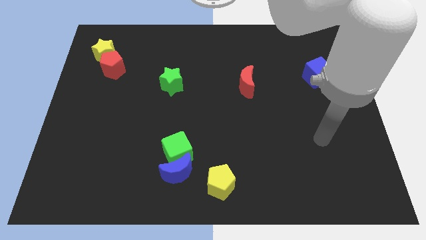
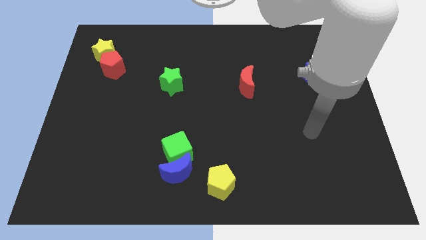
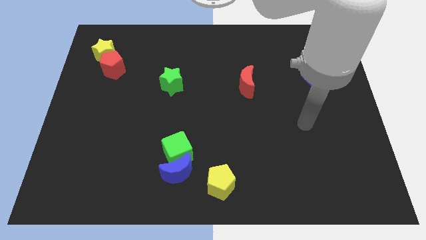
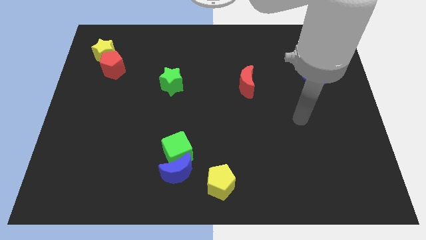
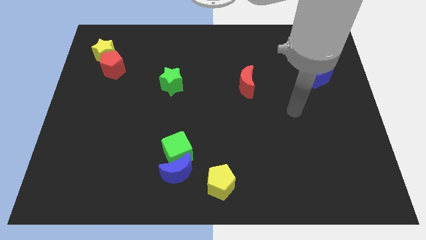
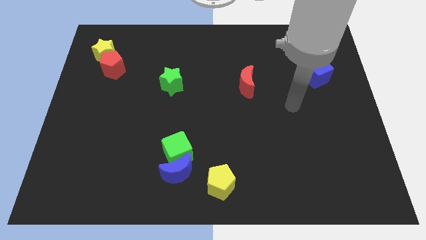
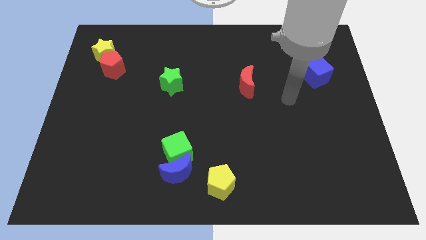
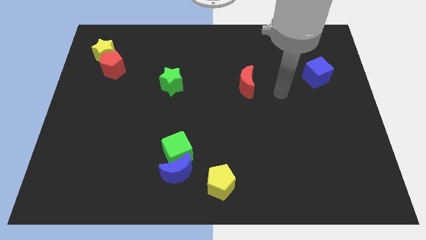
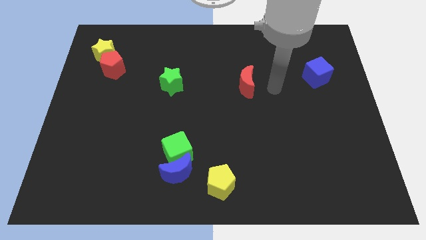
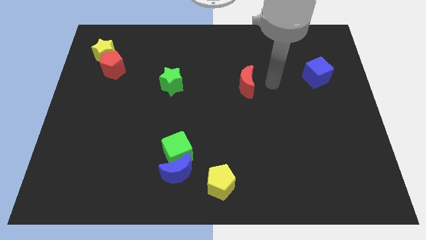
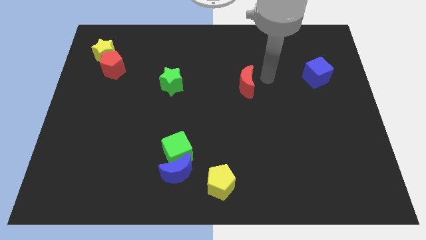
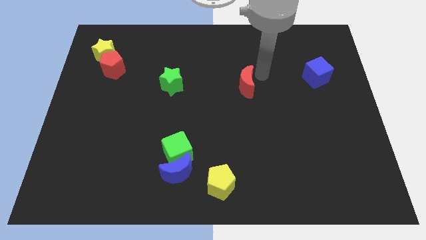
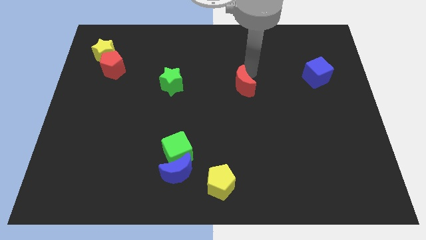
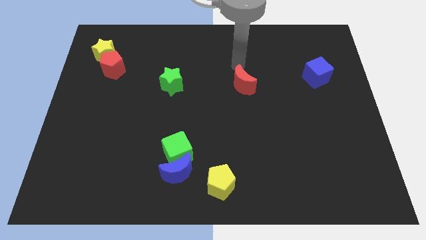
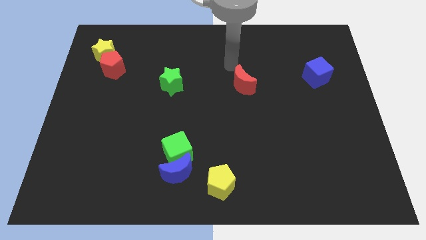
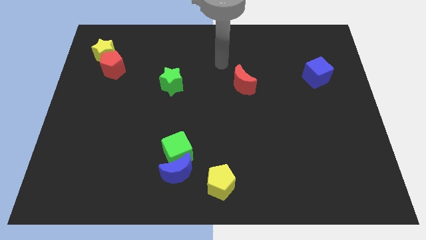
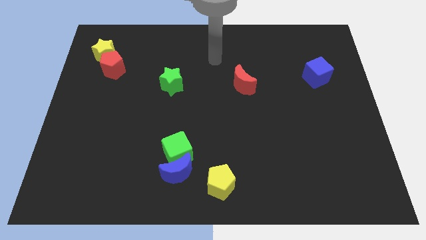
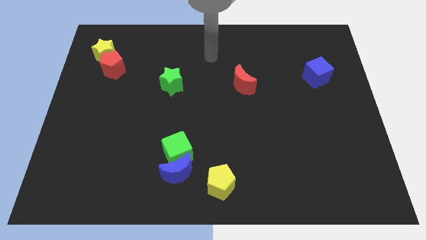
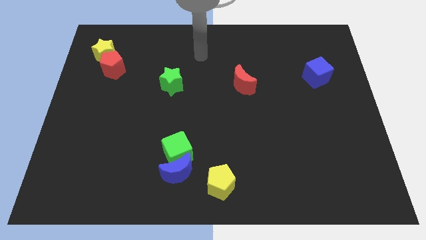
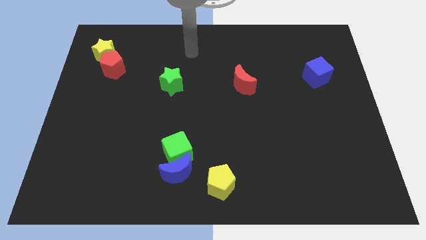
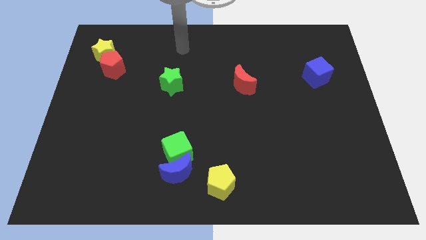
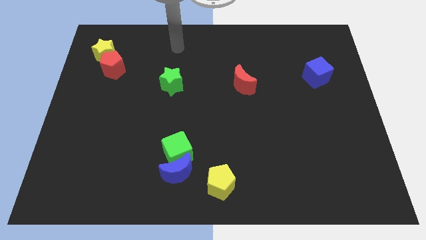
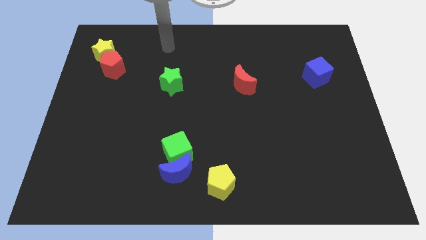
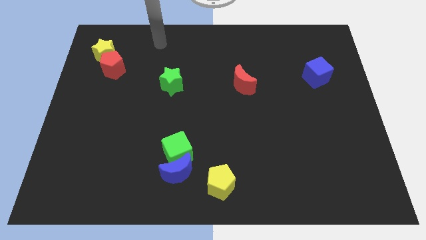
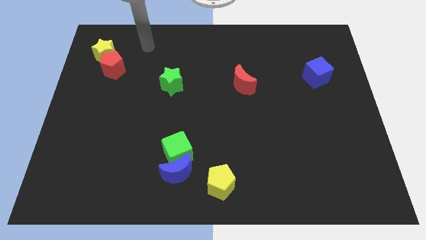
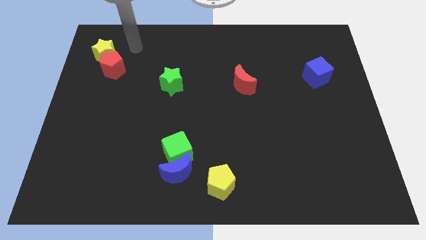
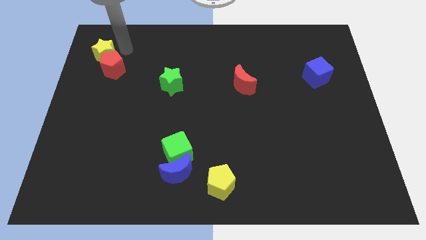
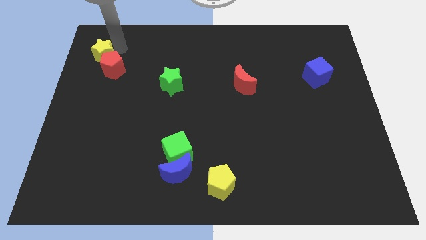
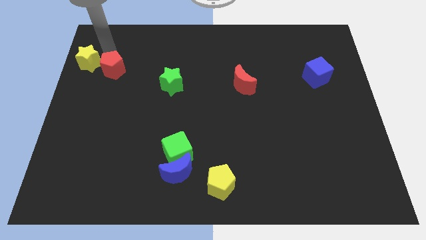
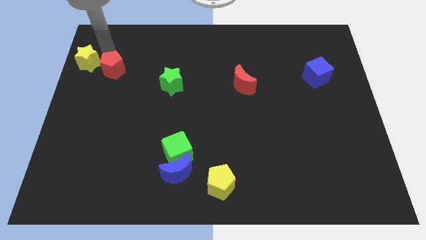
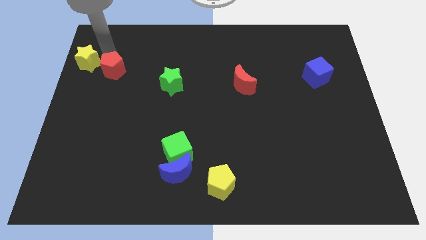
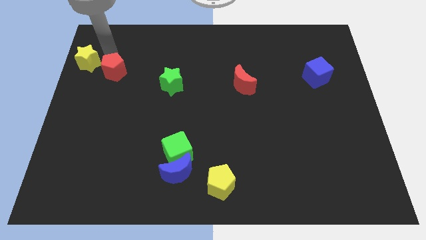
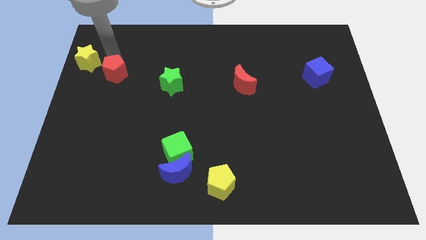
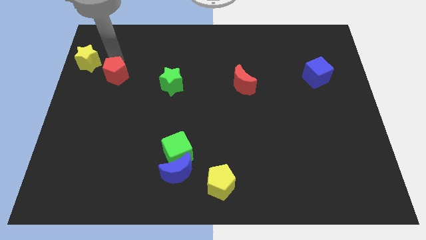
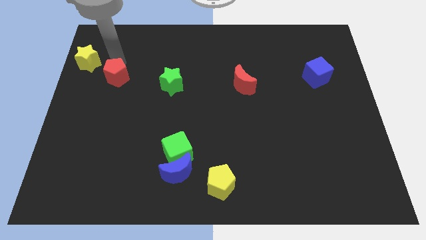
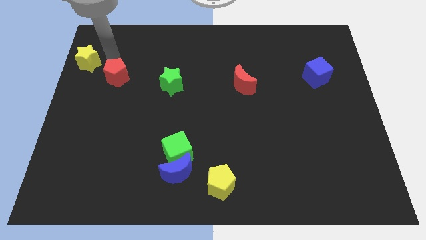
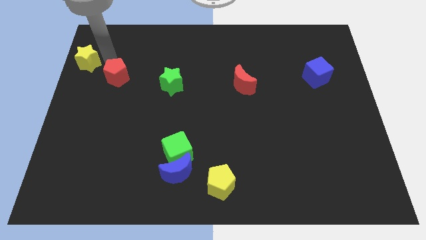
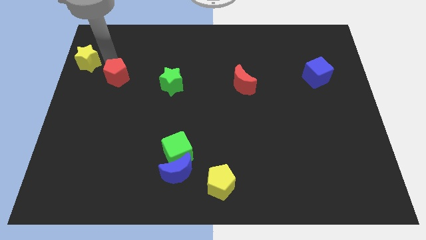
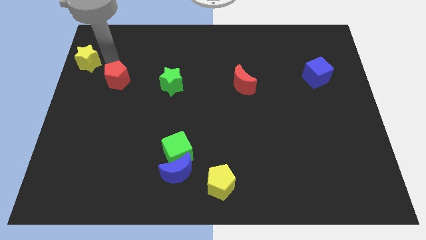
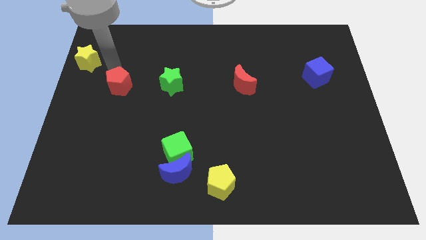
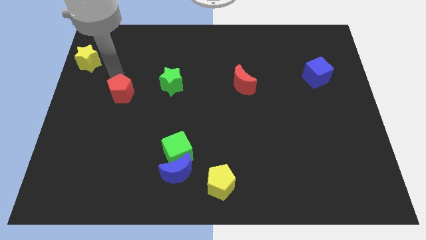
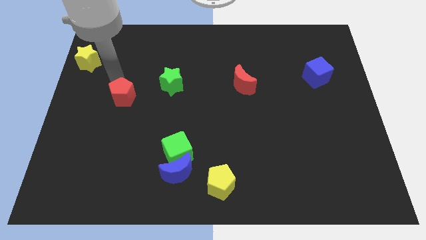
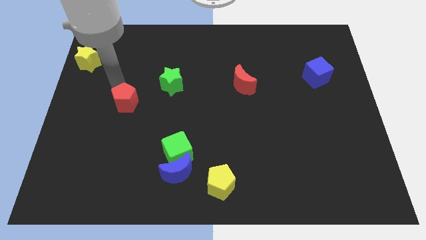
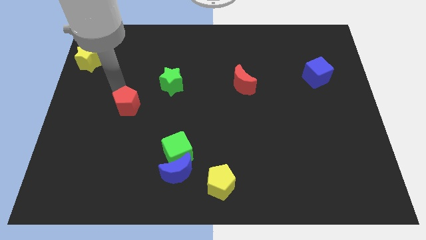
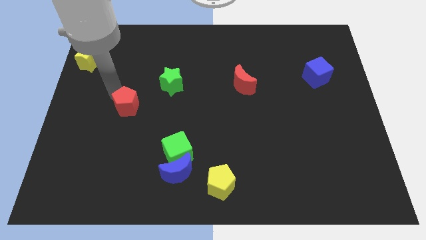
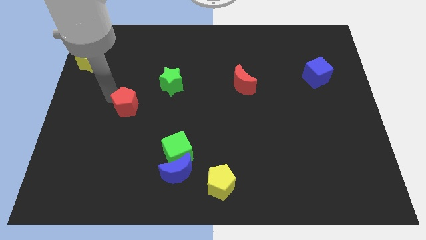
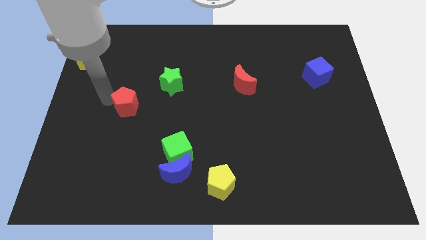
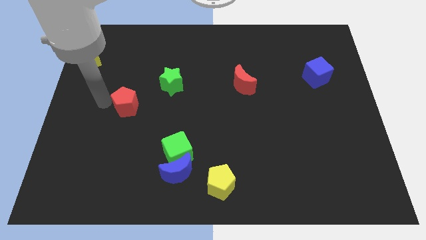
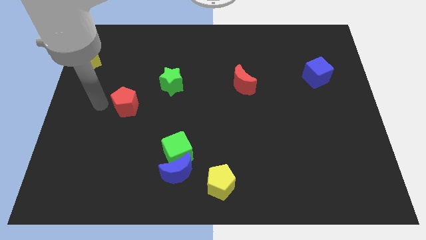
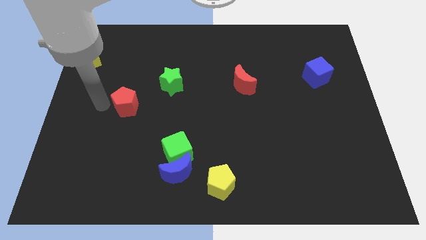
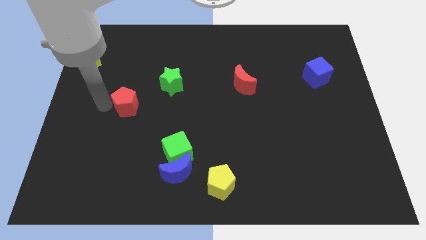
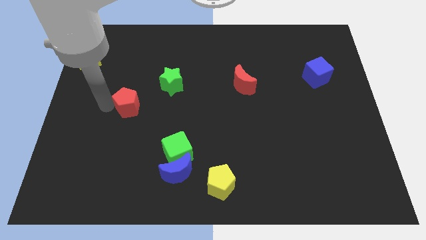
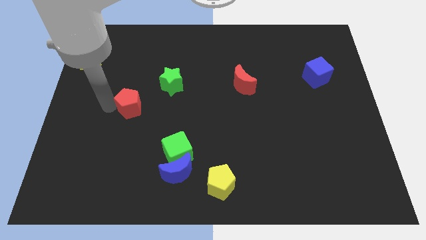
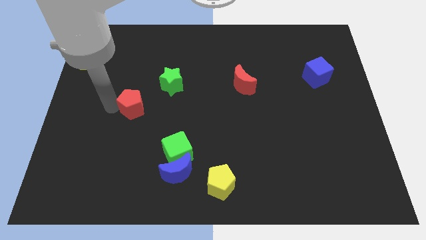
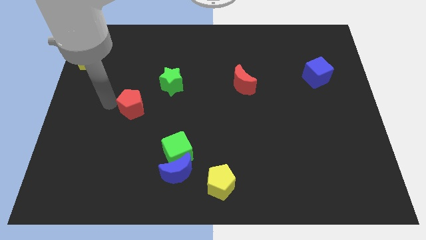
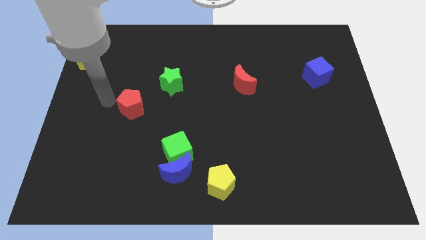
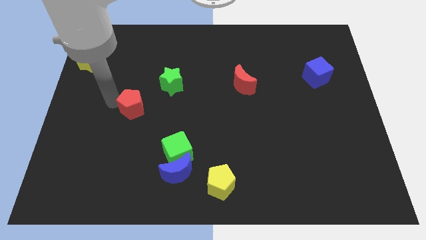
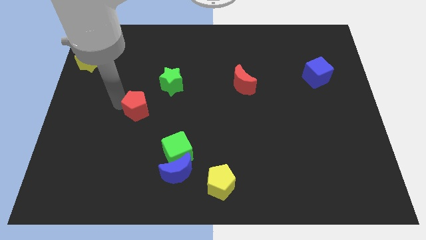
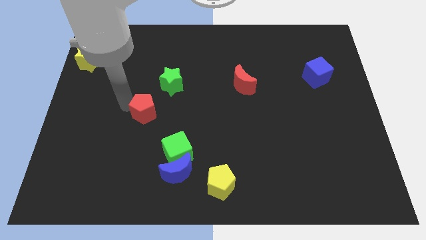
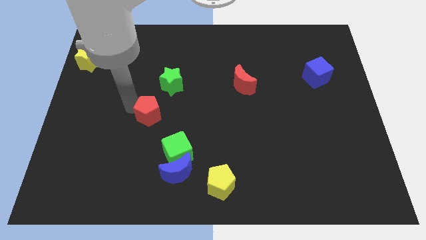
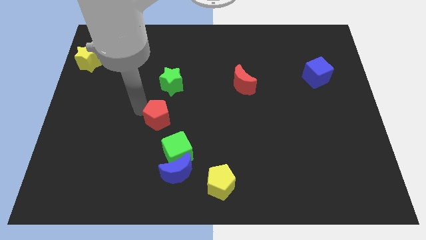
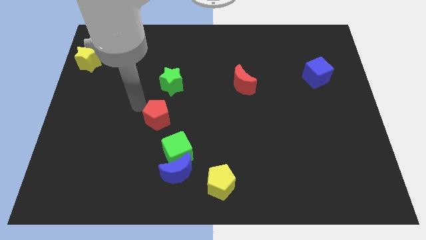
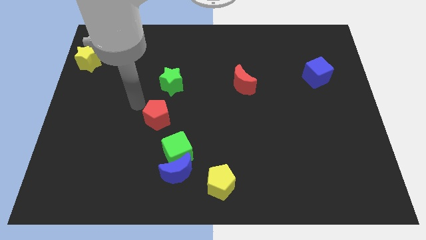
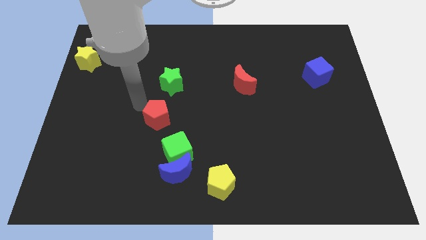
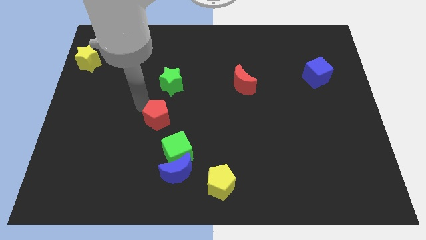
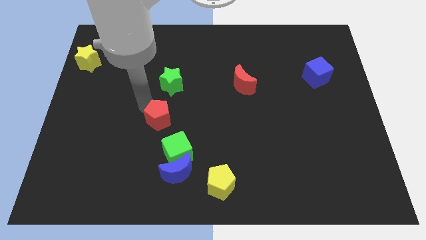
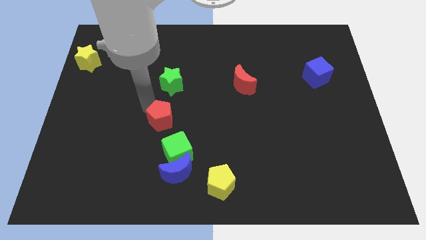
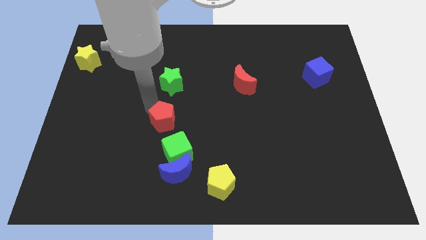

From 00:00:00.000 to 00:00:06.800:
push the red pentagon to the top side of the blue moon

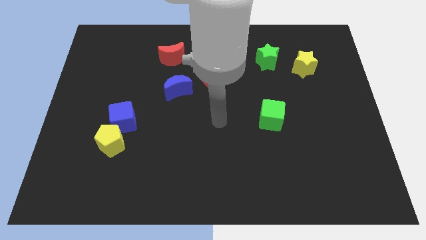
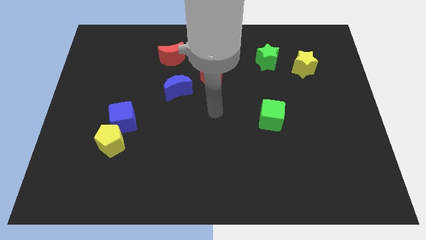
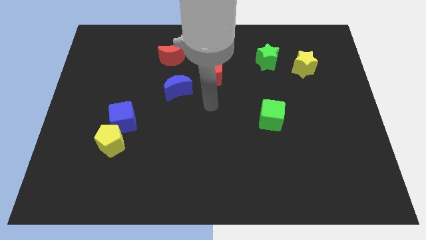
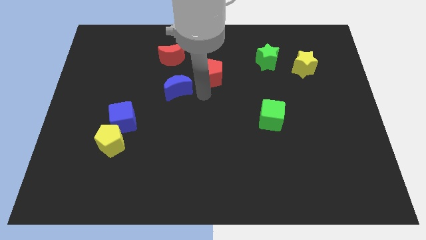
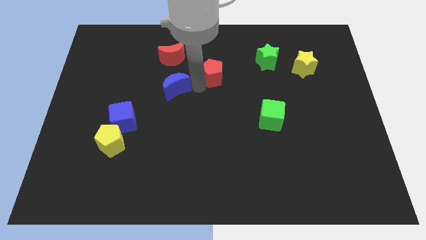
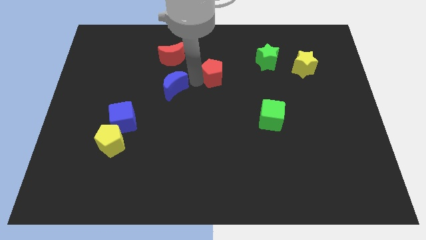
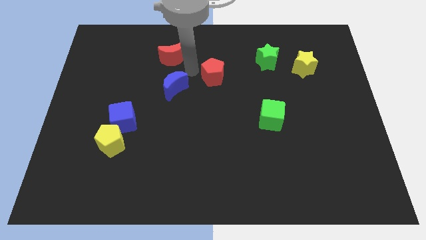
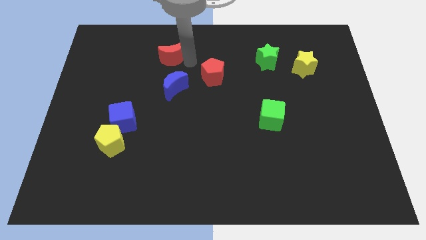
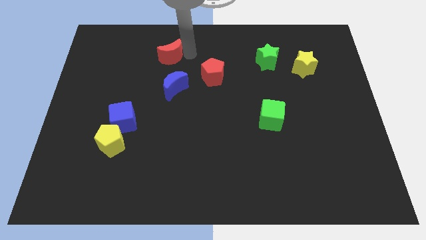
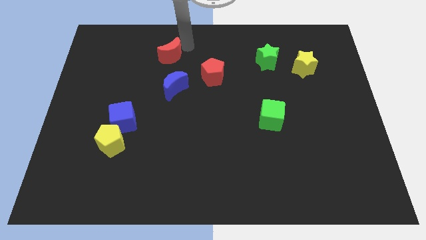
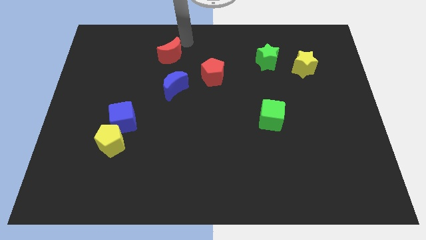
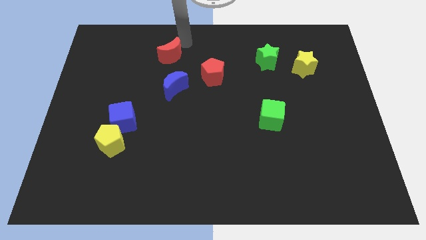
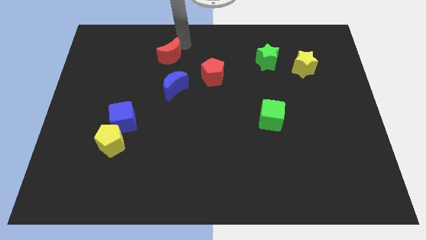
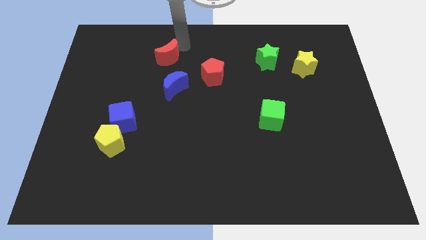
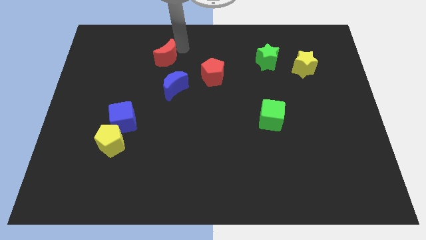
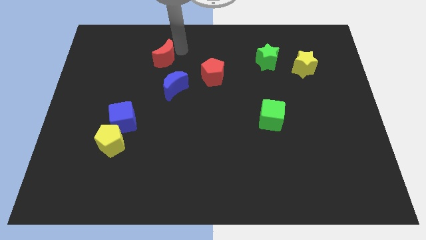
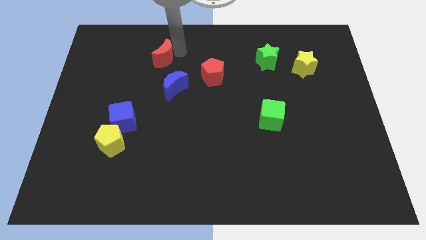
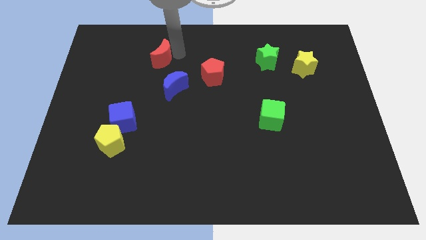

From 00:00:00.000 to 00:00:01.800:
slide the red moon diagonally up and to the left of the blue moon
